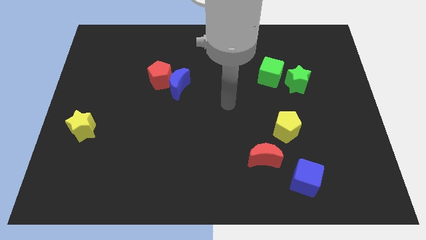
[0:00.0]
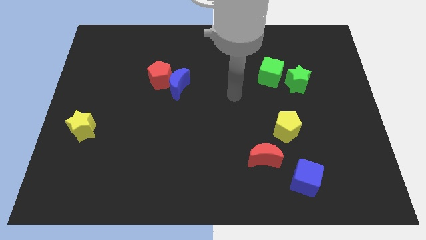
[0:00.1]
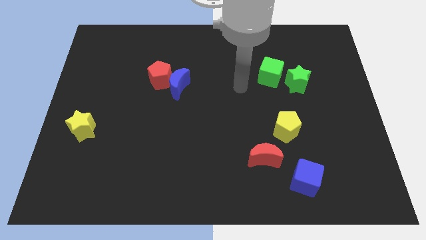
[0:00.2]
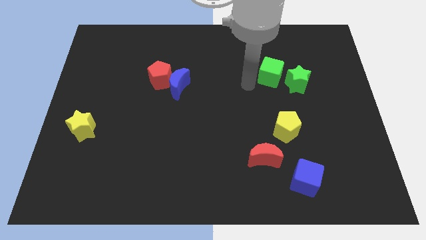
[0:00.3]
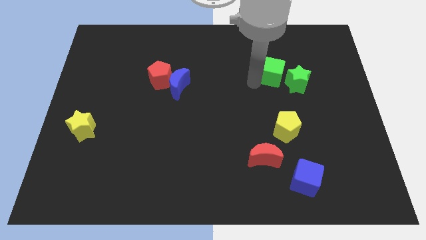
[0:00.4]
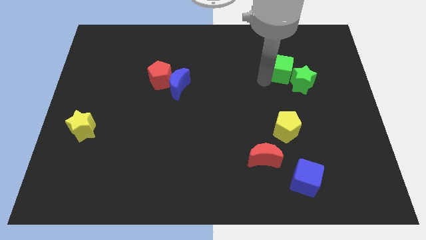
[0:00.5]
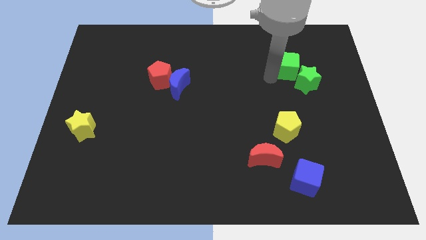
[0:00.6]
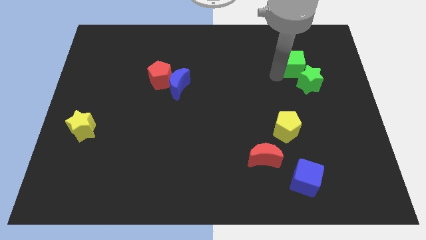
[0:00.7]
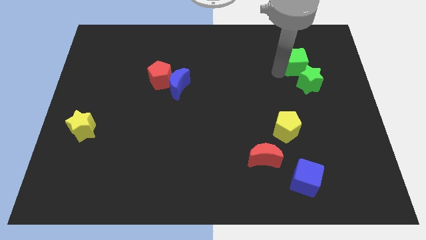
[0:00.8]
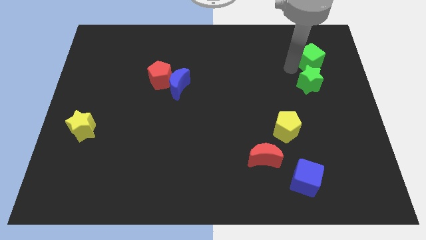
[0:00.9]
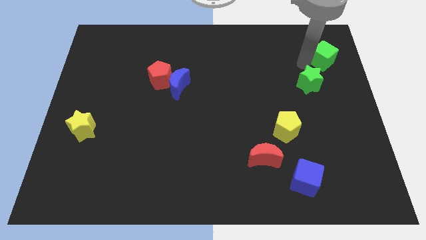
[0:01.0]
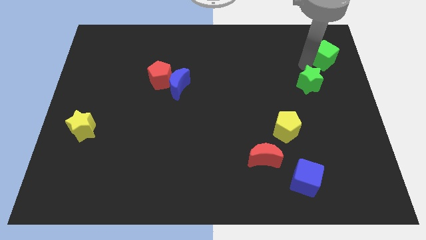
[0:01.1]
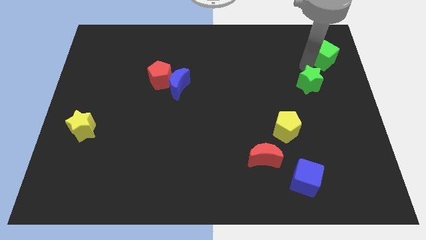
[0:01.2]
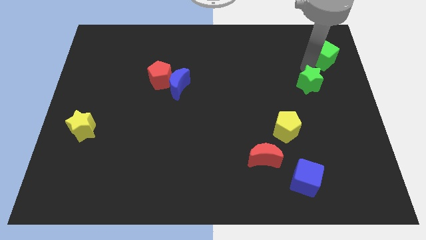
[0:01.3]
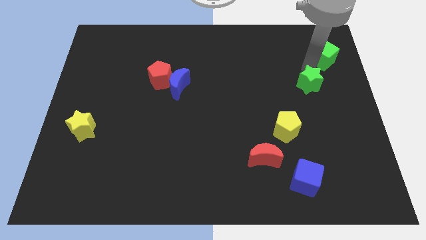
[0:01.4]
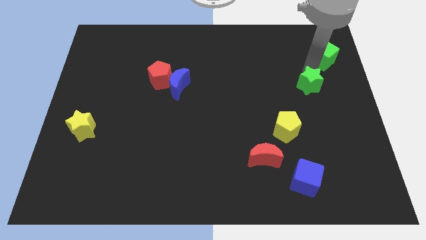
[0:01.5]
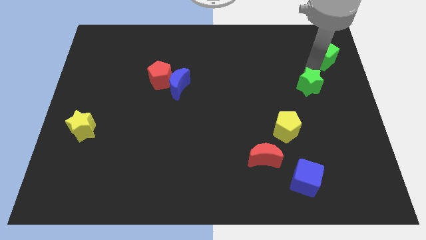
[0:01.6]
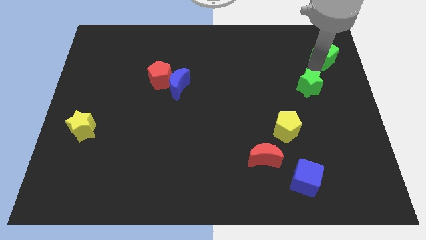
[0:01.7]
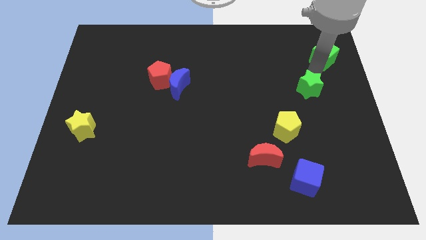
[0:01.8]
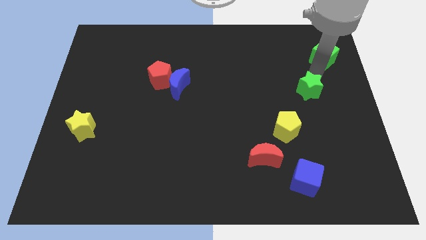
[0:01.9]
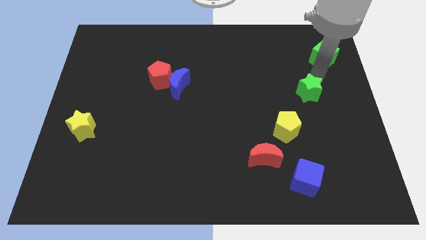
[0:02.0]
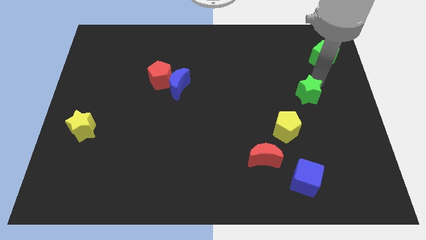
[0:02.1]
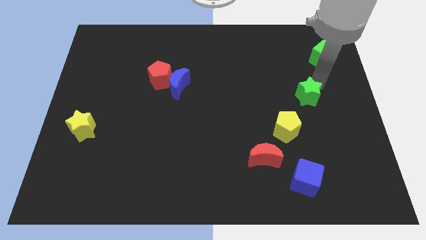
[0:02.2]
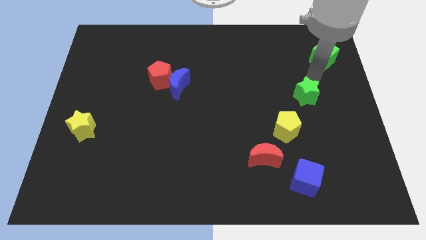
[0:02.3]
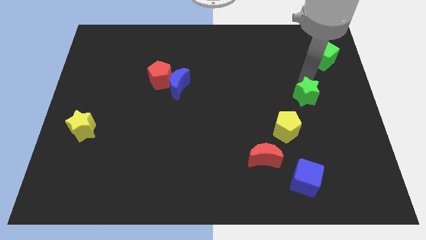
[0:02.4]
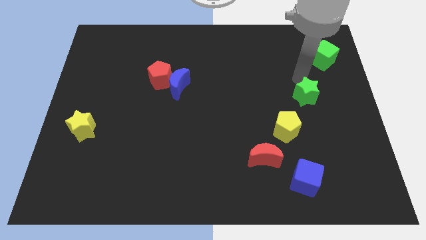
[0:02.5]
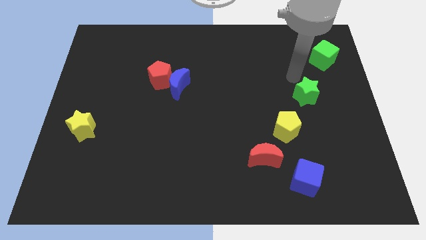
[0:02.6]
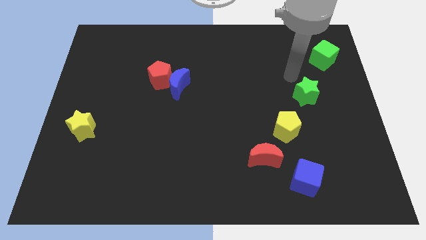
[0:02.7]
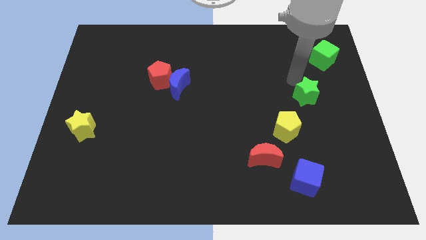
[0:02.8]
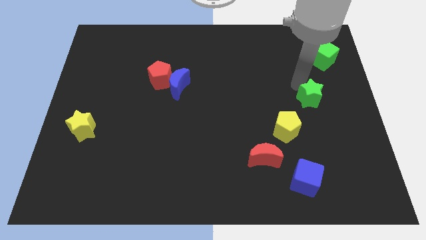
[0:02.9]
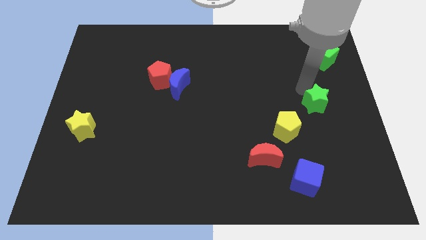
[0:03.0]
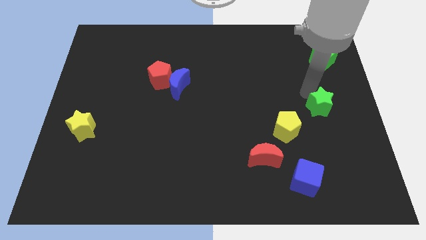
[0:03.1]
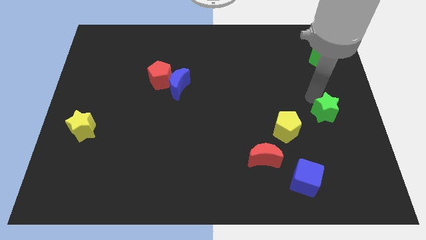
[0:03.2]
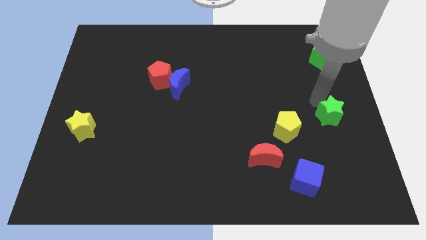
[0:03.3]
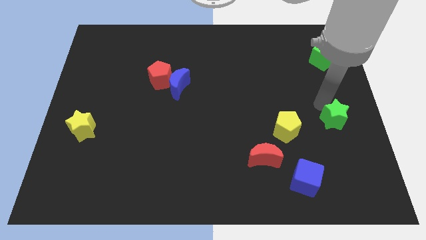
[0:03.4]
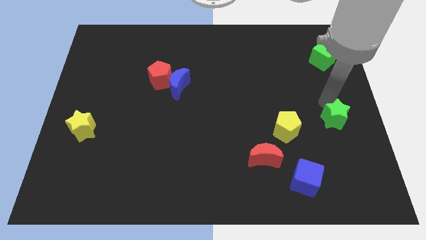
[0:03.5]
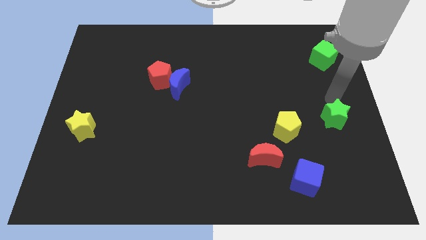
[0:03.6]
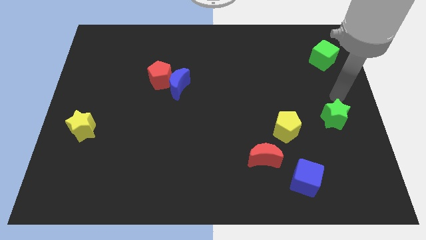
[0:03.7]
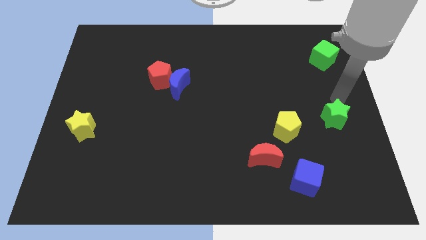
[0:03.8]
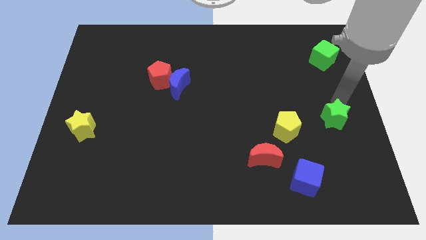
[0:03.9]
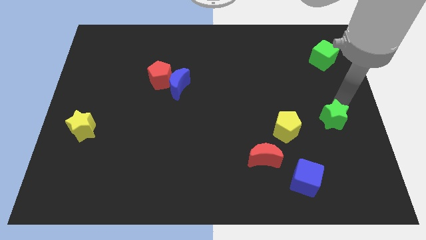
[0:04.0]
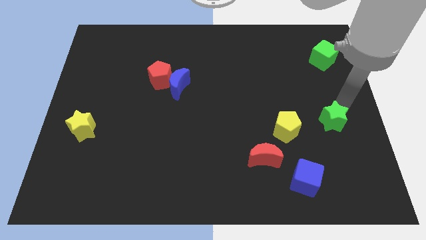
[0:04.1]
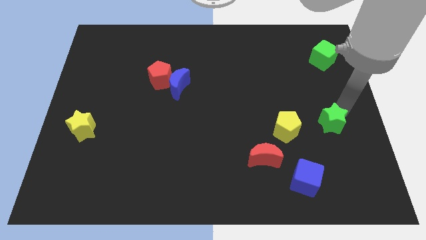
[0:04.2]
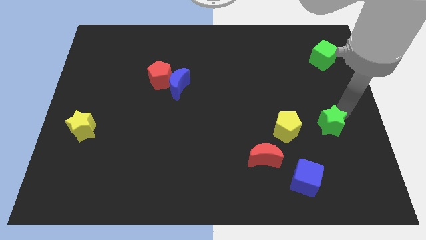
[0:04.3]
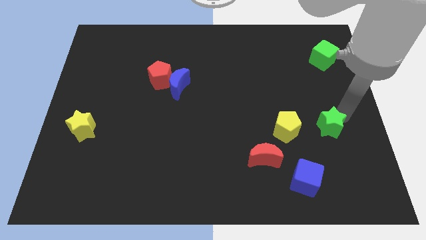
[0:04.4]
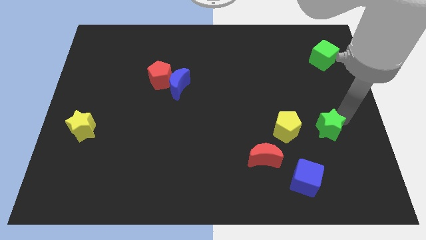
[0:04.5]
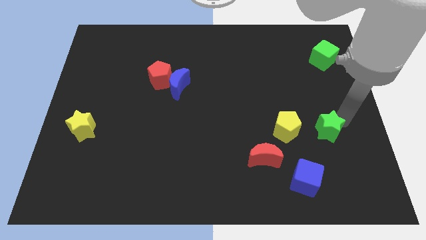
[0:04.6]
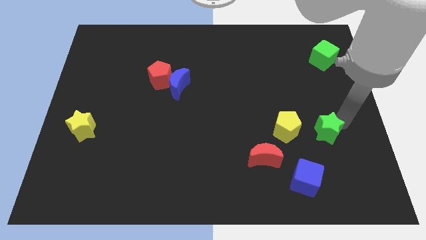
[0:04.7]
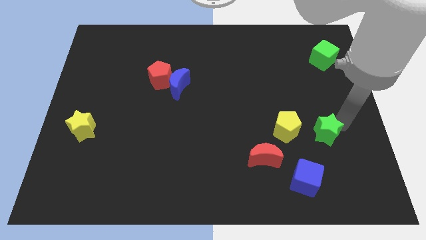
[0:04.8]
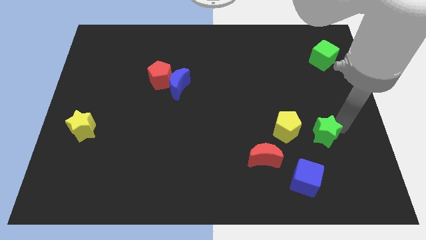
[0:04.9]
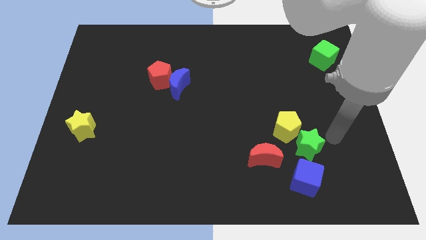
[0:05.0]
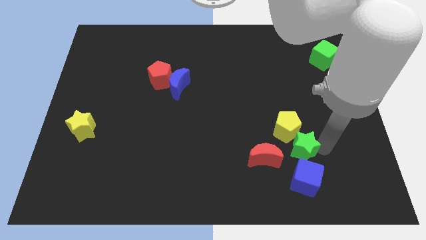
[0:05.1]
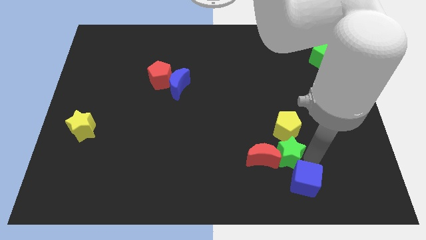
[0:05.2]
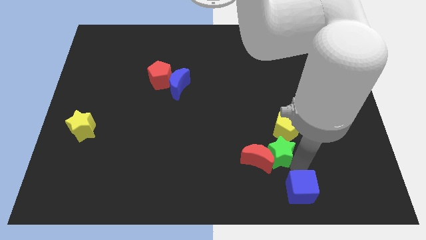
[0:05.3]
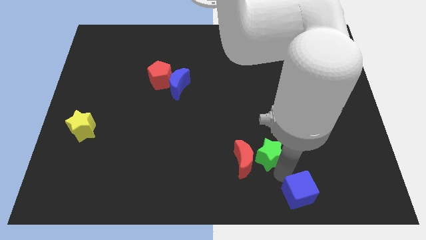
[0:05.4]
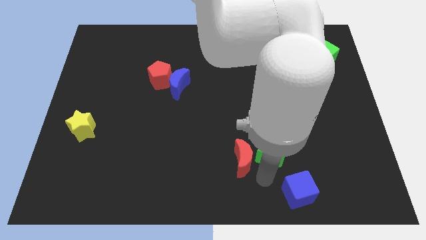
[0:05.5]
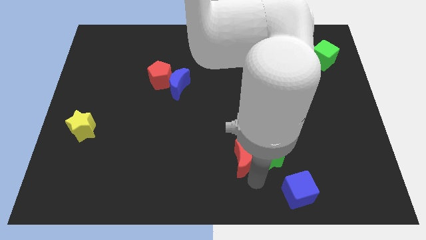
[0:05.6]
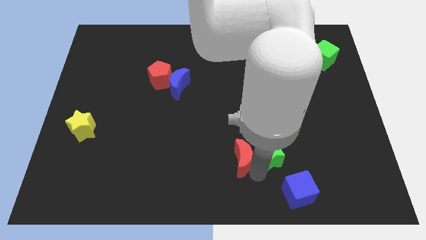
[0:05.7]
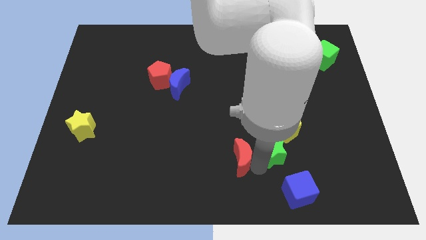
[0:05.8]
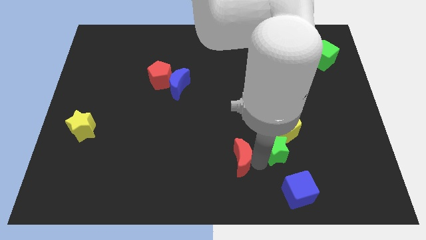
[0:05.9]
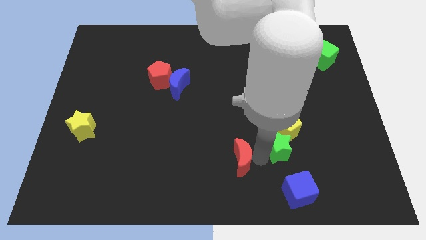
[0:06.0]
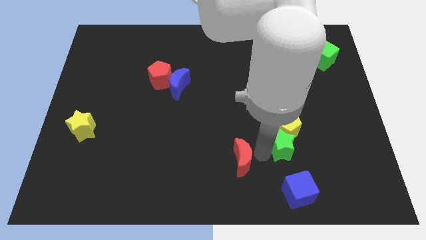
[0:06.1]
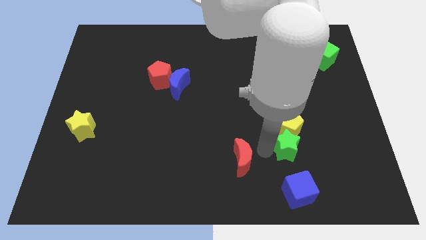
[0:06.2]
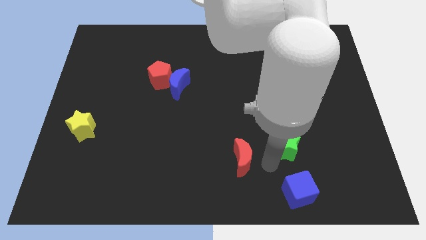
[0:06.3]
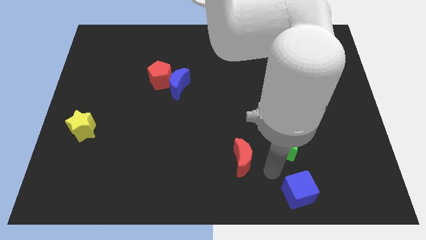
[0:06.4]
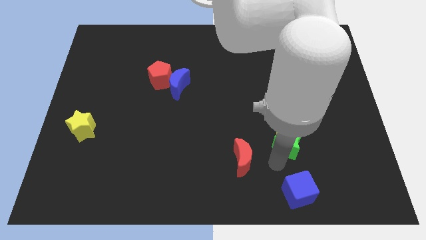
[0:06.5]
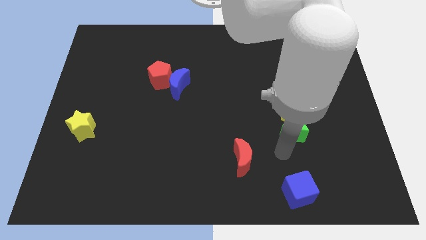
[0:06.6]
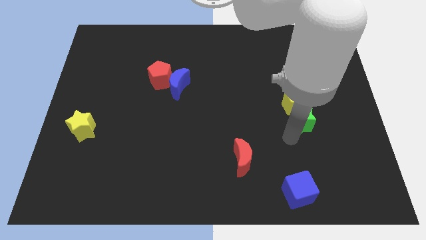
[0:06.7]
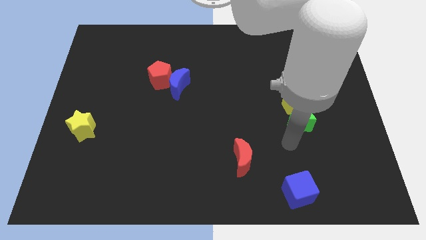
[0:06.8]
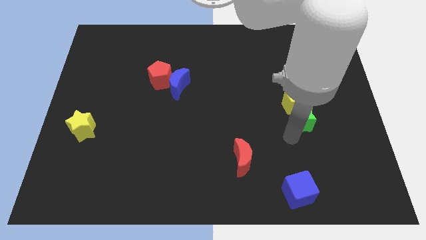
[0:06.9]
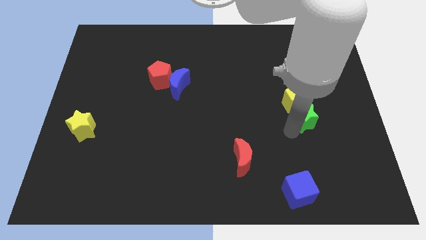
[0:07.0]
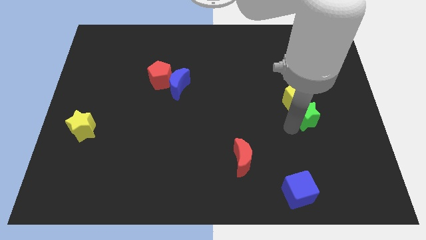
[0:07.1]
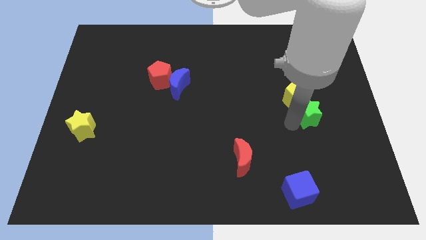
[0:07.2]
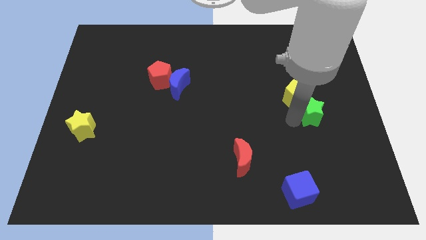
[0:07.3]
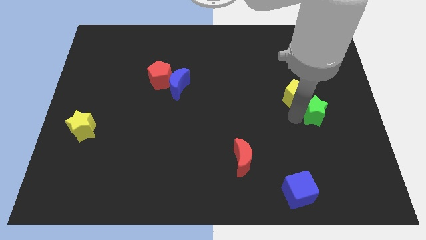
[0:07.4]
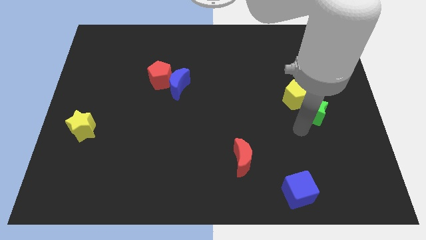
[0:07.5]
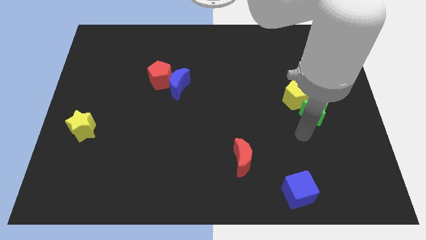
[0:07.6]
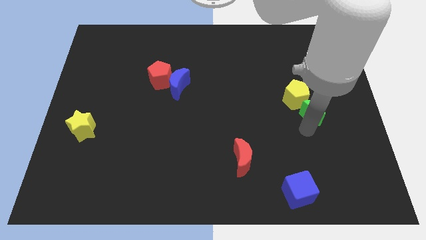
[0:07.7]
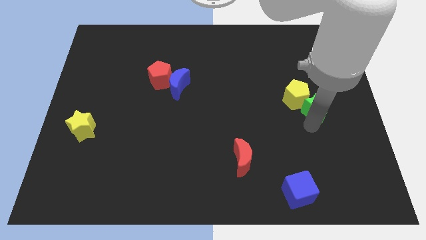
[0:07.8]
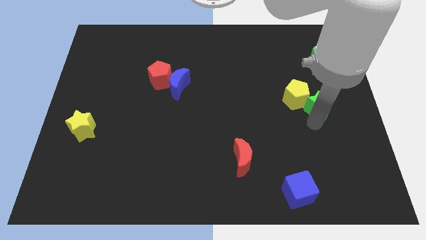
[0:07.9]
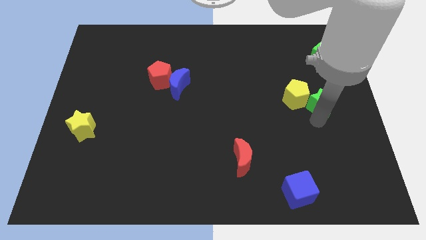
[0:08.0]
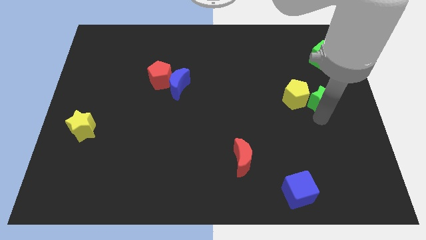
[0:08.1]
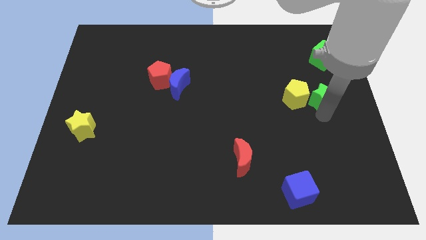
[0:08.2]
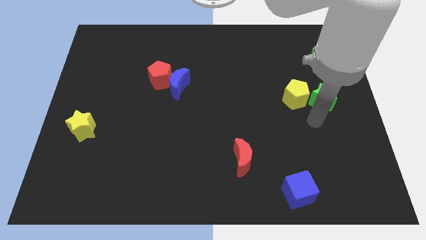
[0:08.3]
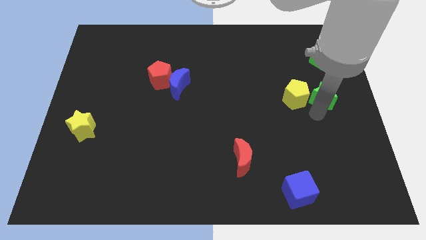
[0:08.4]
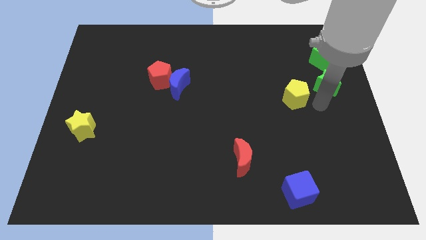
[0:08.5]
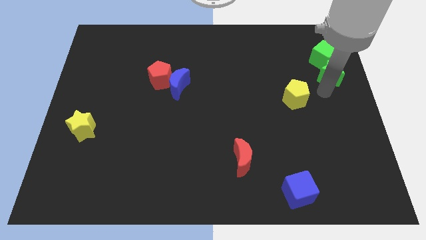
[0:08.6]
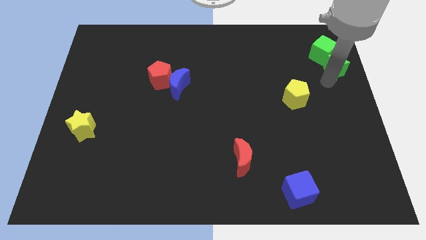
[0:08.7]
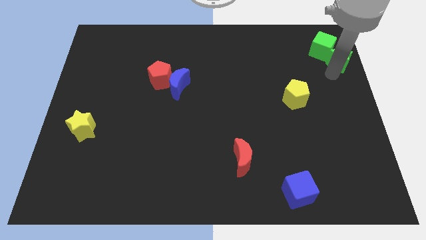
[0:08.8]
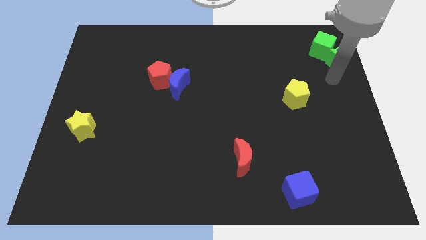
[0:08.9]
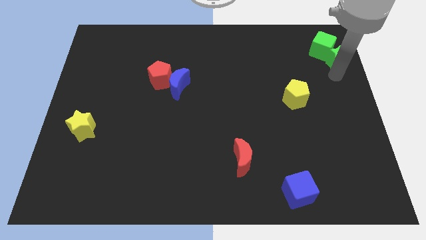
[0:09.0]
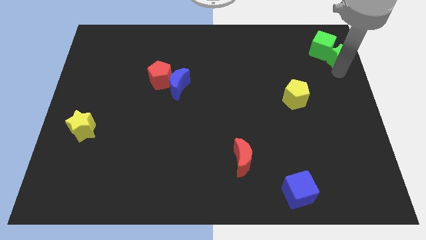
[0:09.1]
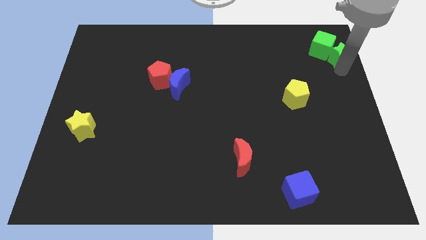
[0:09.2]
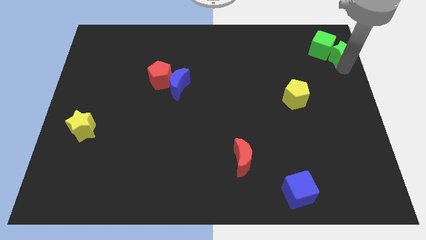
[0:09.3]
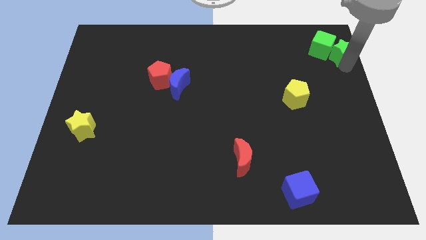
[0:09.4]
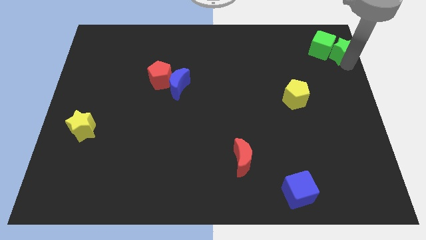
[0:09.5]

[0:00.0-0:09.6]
move the green star to the top right of the board
